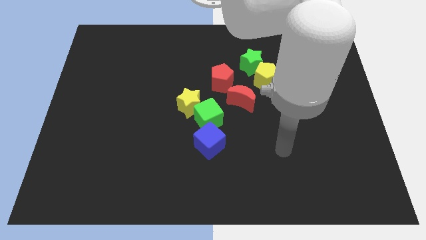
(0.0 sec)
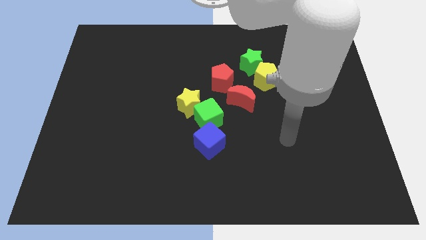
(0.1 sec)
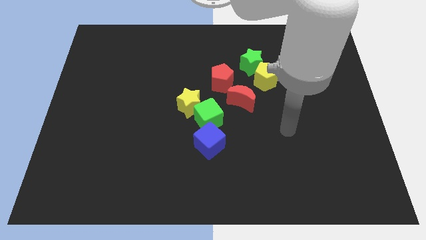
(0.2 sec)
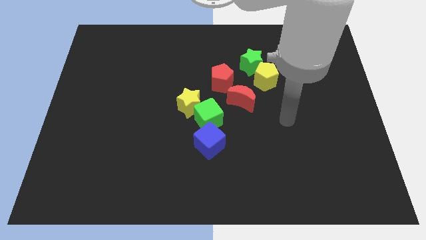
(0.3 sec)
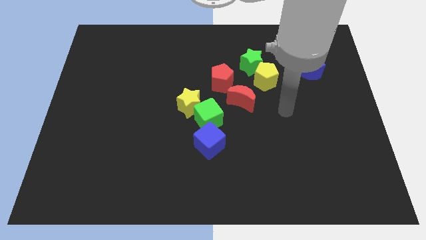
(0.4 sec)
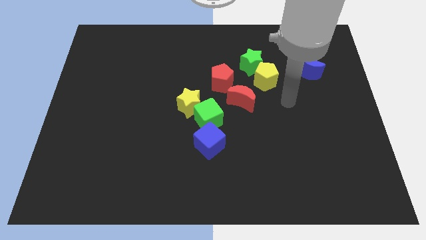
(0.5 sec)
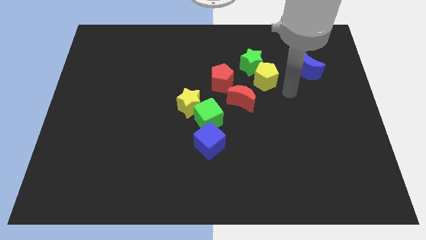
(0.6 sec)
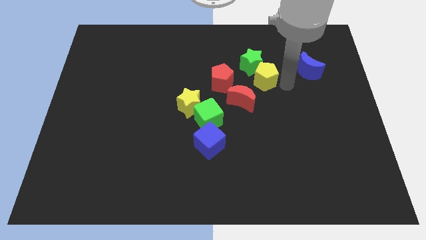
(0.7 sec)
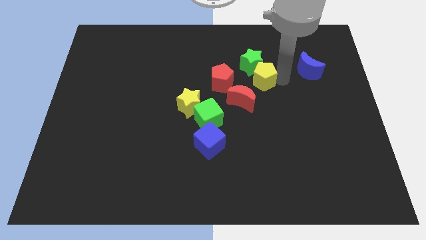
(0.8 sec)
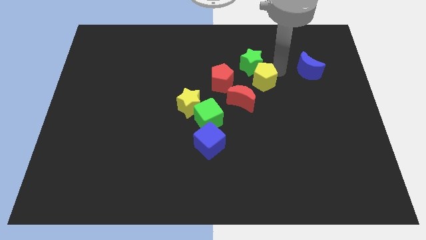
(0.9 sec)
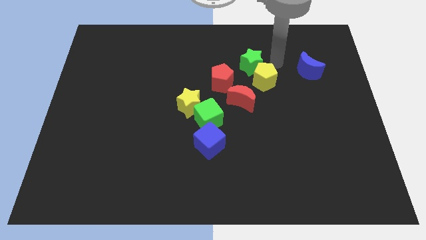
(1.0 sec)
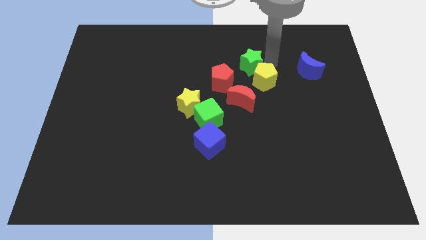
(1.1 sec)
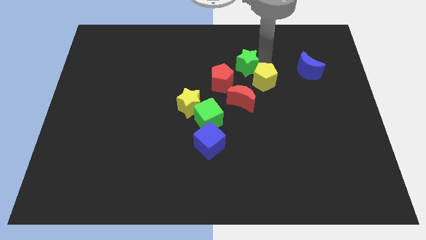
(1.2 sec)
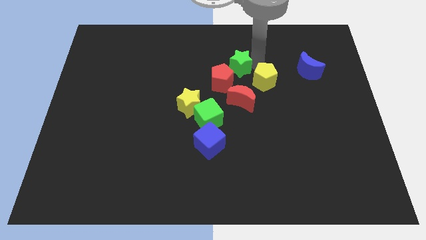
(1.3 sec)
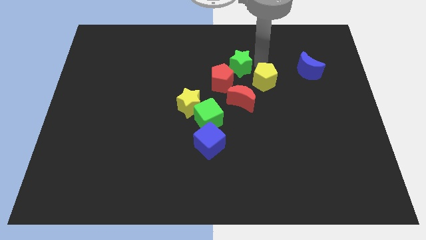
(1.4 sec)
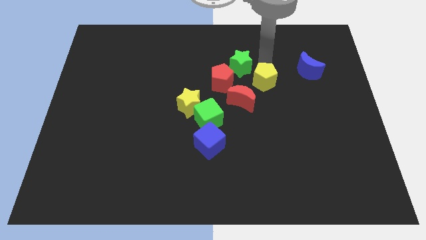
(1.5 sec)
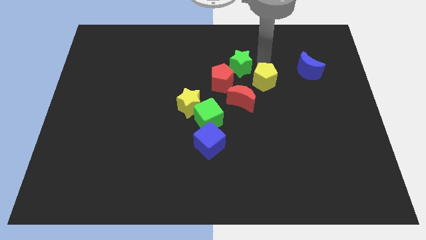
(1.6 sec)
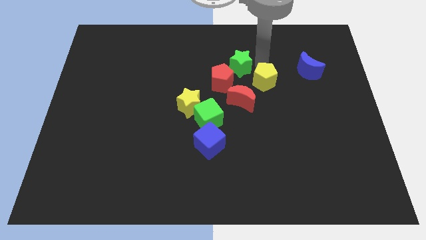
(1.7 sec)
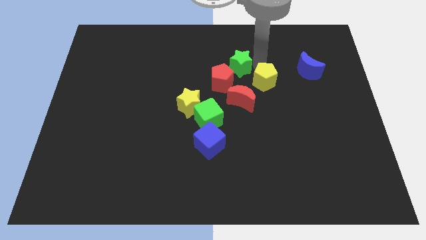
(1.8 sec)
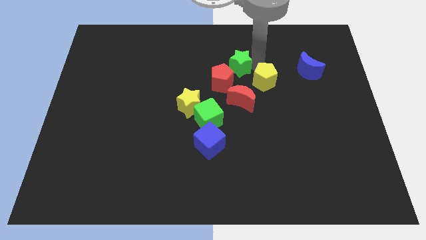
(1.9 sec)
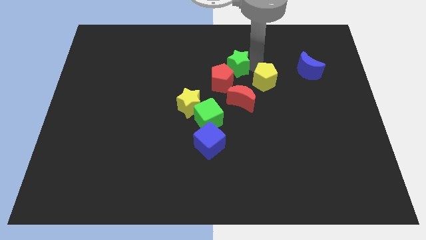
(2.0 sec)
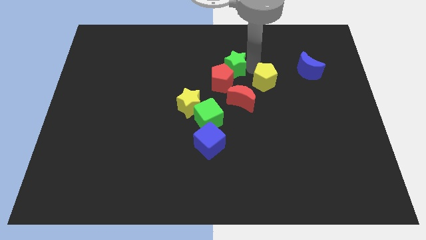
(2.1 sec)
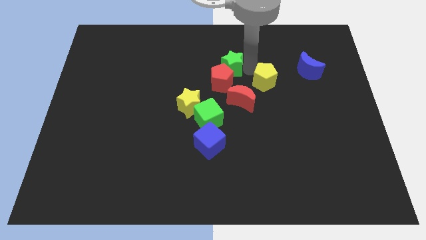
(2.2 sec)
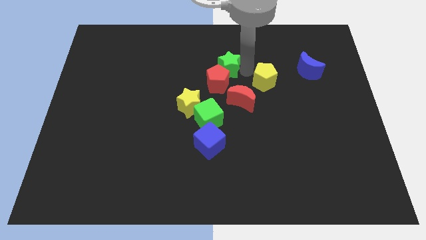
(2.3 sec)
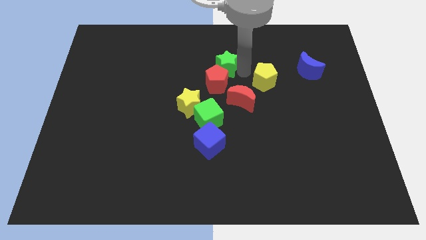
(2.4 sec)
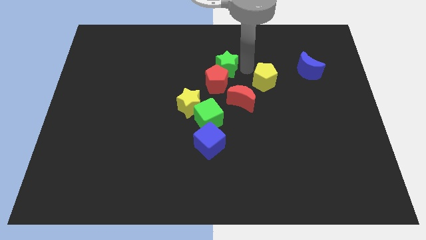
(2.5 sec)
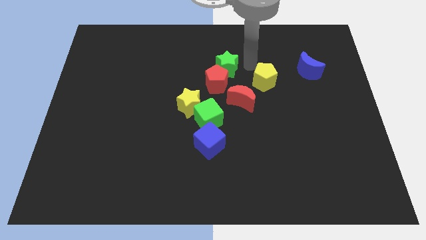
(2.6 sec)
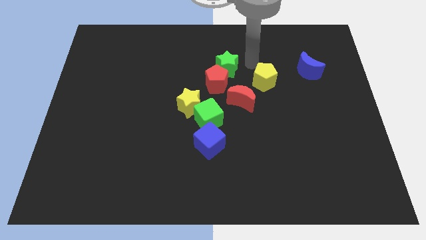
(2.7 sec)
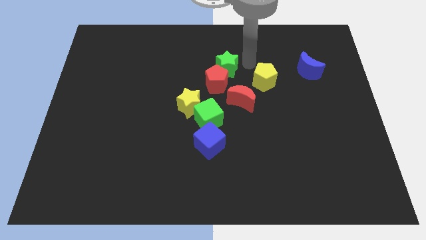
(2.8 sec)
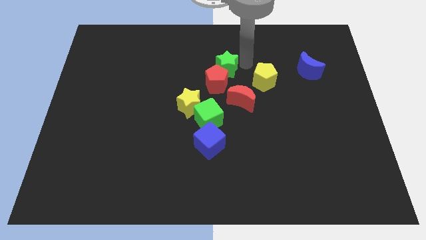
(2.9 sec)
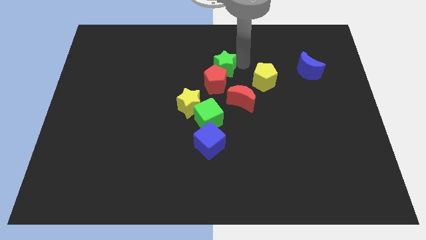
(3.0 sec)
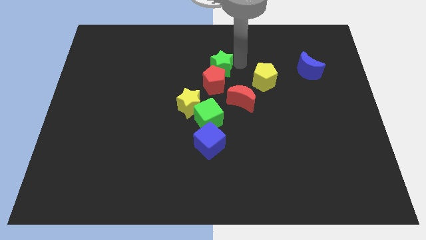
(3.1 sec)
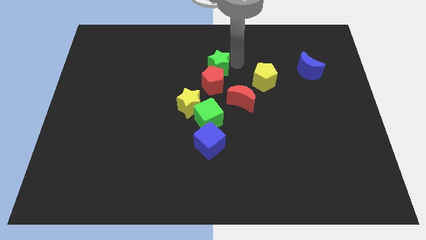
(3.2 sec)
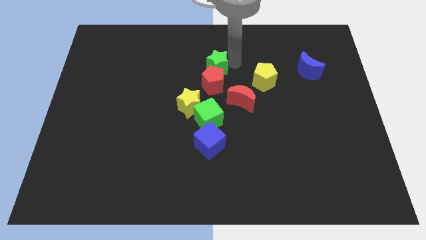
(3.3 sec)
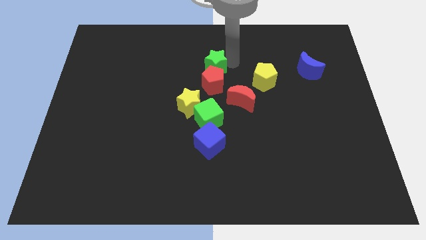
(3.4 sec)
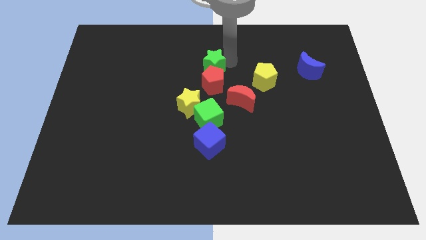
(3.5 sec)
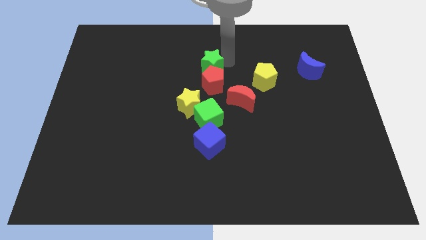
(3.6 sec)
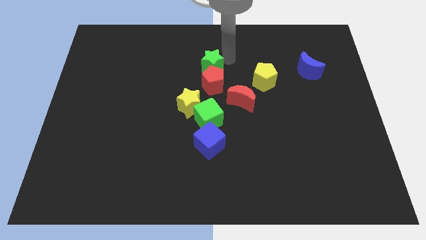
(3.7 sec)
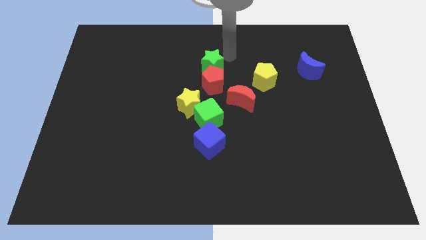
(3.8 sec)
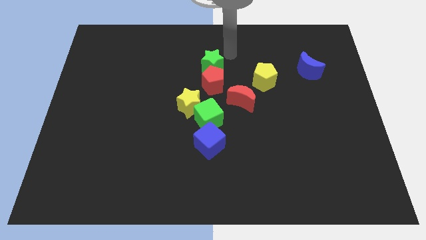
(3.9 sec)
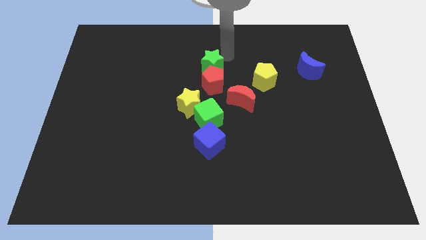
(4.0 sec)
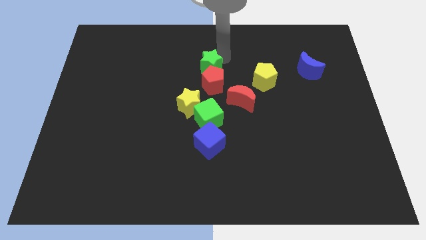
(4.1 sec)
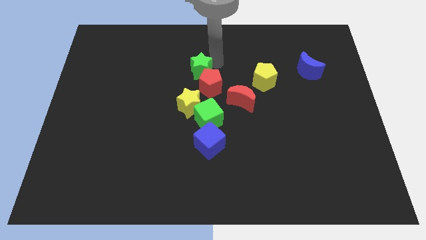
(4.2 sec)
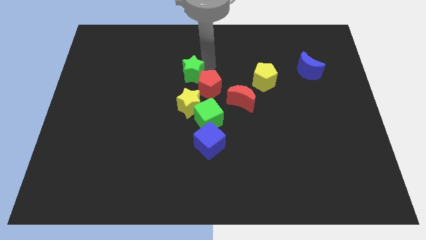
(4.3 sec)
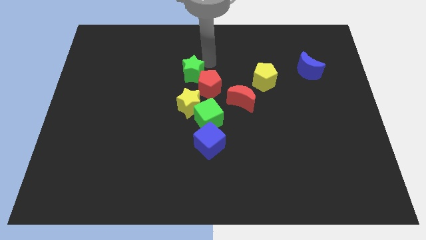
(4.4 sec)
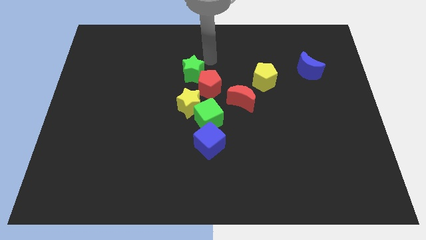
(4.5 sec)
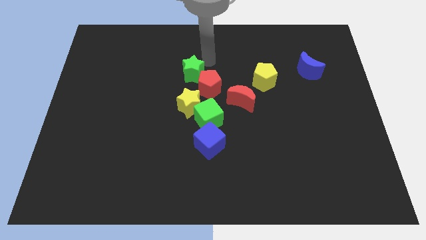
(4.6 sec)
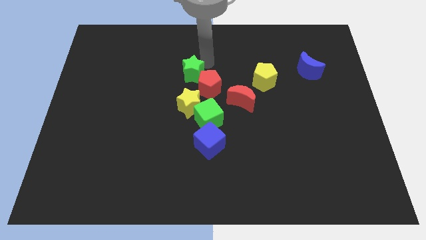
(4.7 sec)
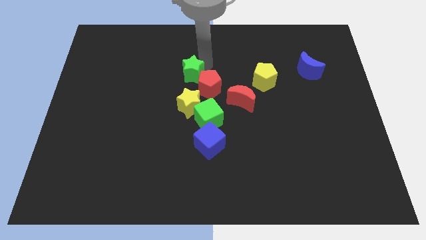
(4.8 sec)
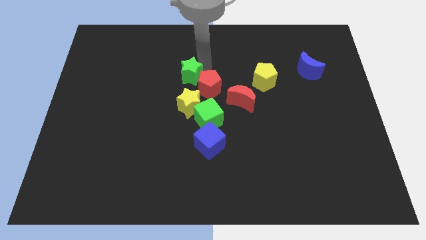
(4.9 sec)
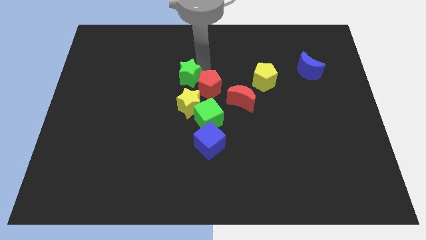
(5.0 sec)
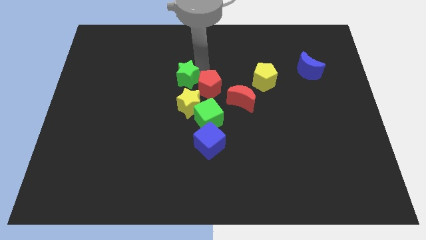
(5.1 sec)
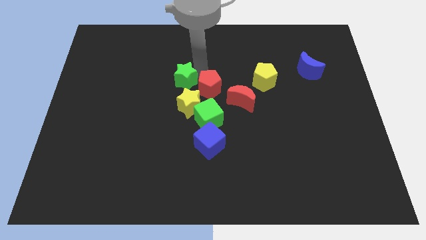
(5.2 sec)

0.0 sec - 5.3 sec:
move the green star to the top left side of the yellow star

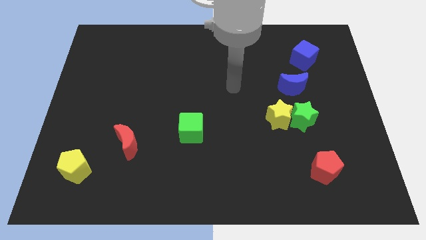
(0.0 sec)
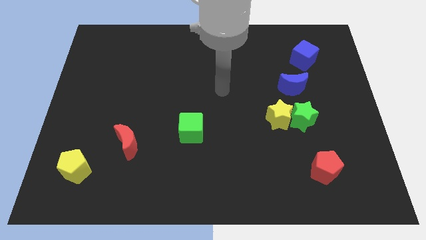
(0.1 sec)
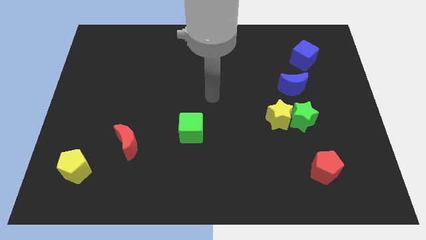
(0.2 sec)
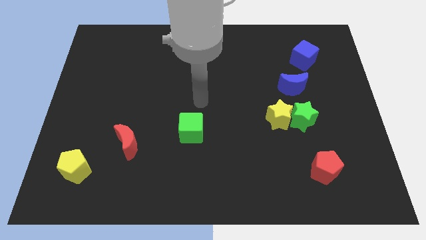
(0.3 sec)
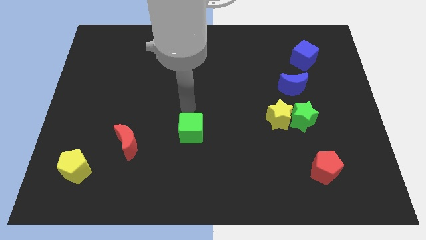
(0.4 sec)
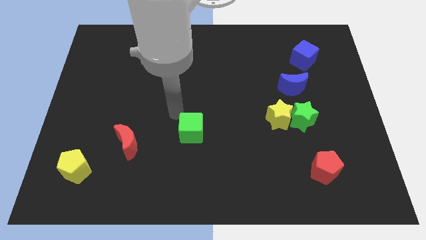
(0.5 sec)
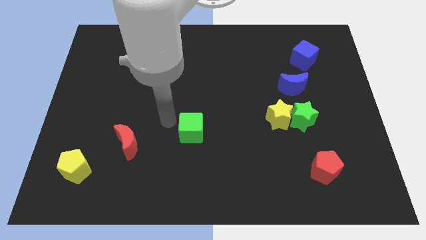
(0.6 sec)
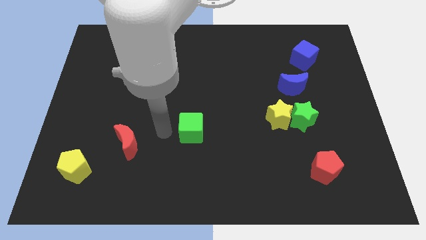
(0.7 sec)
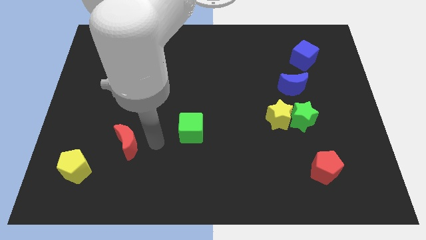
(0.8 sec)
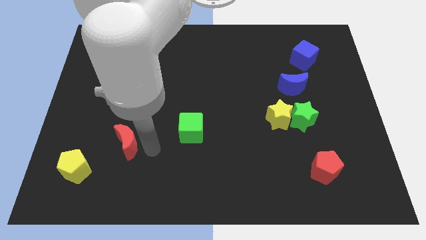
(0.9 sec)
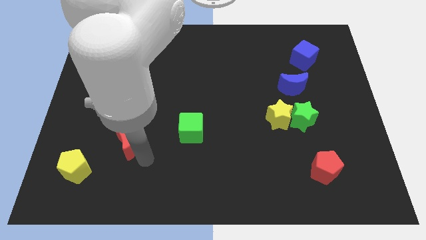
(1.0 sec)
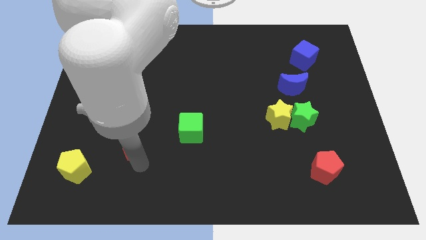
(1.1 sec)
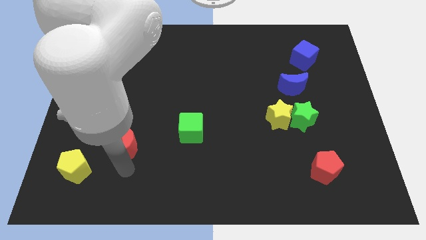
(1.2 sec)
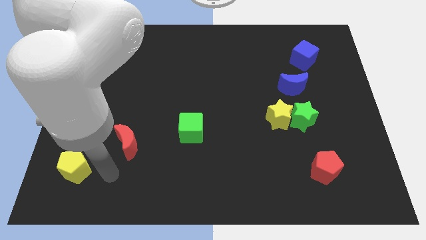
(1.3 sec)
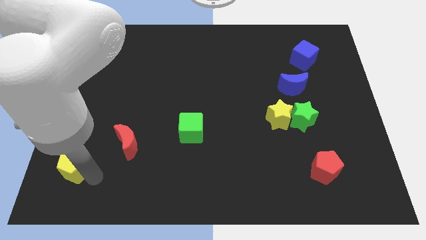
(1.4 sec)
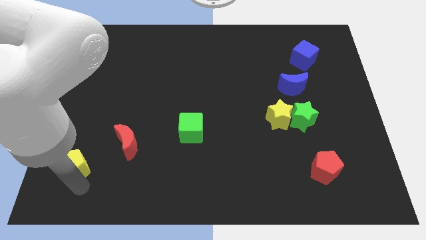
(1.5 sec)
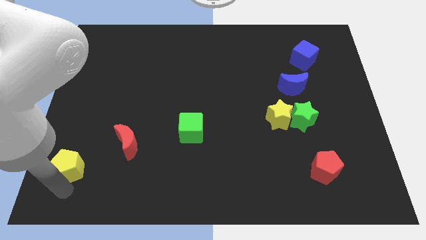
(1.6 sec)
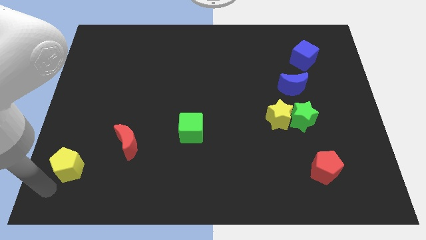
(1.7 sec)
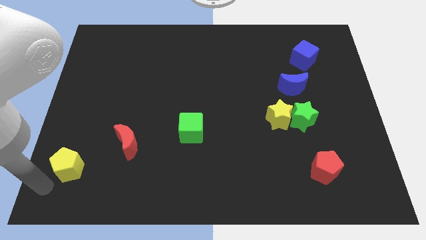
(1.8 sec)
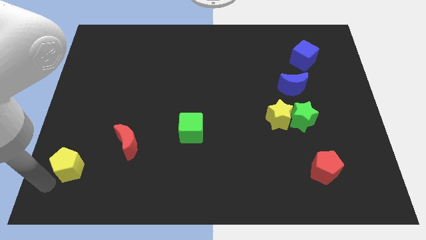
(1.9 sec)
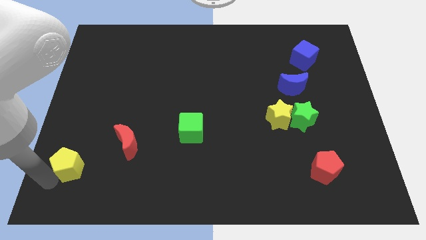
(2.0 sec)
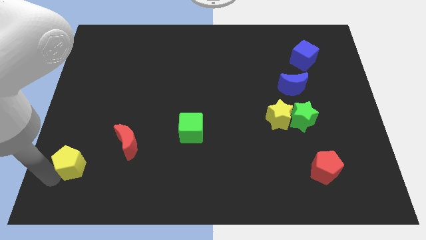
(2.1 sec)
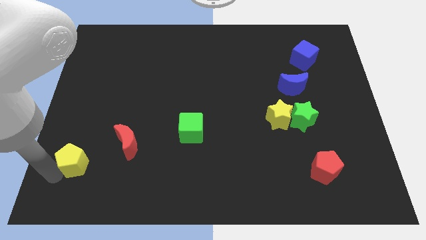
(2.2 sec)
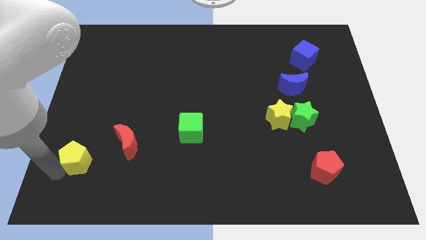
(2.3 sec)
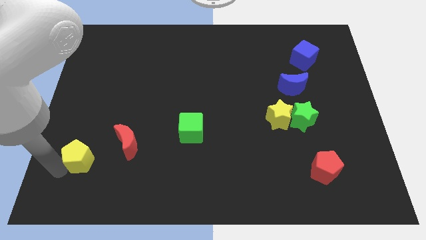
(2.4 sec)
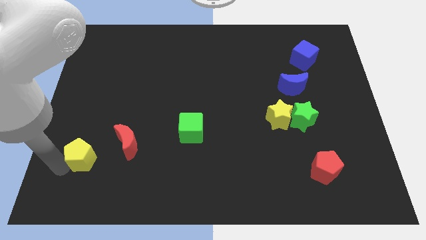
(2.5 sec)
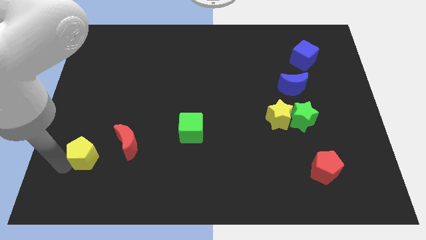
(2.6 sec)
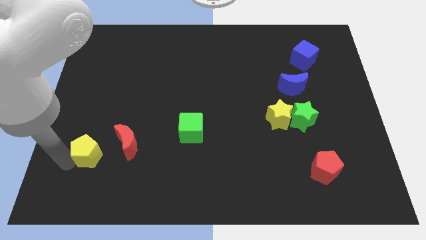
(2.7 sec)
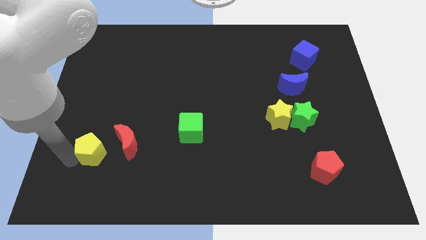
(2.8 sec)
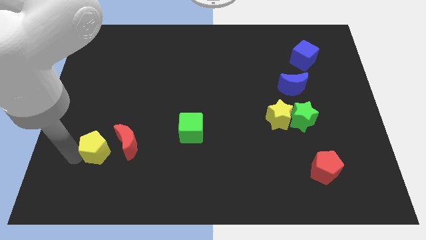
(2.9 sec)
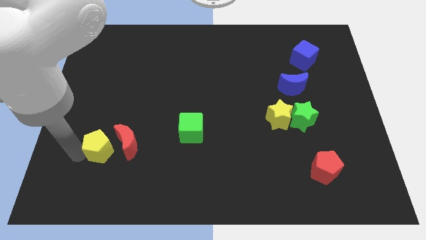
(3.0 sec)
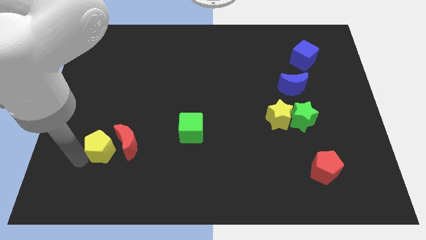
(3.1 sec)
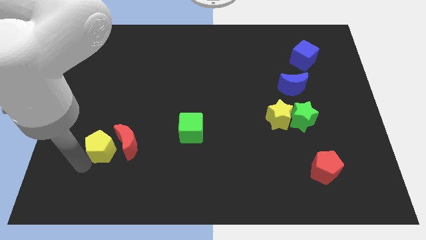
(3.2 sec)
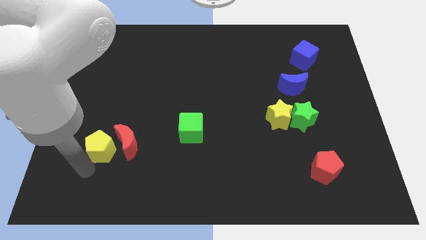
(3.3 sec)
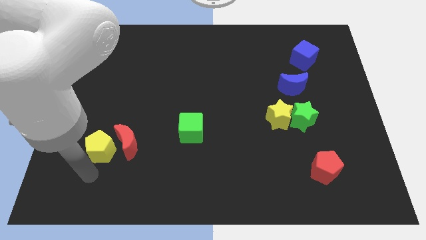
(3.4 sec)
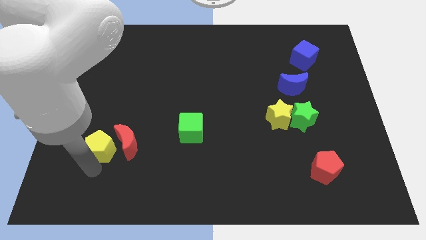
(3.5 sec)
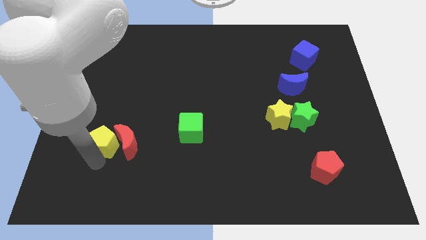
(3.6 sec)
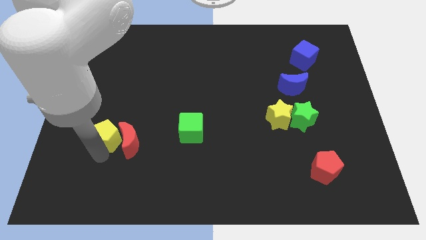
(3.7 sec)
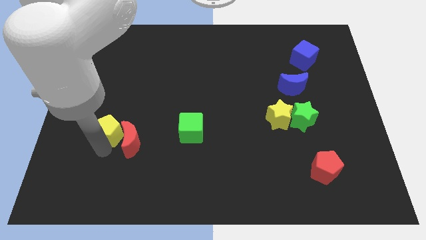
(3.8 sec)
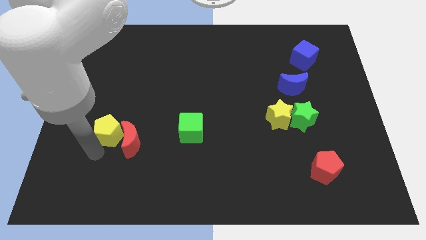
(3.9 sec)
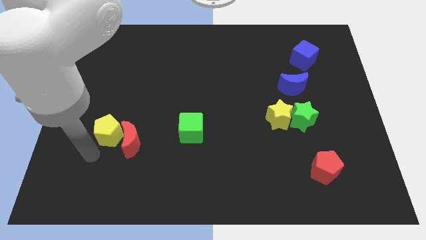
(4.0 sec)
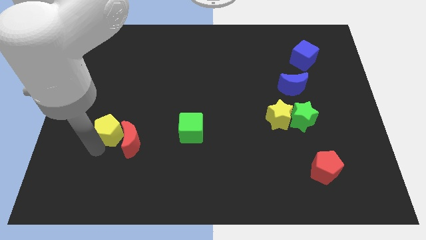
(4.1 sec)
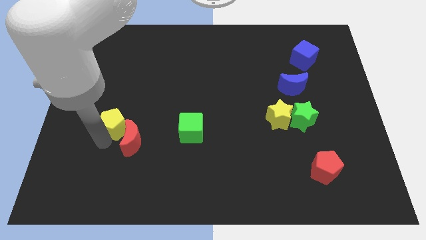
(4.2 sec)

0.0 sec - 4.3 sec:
slide the yellow pentagon to the top of the red moon
